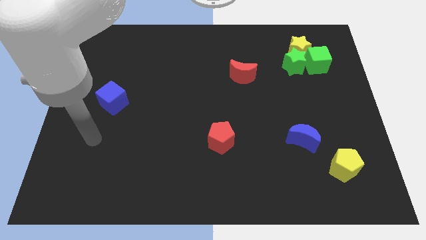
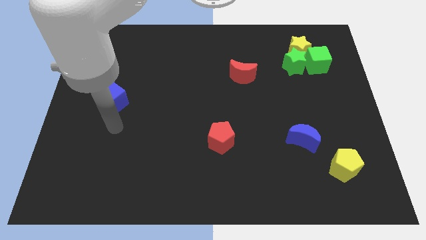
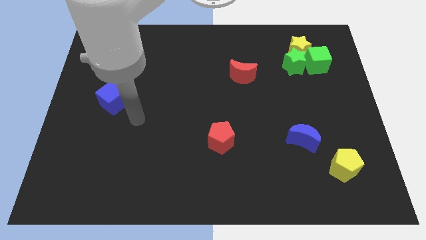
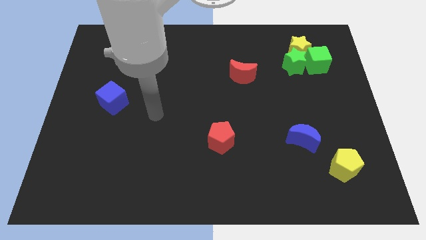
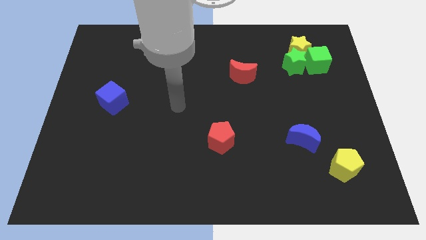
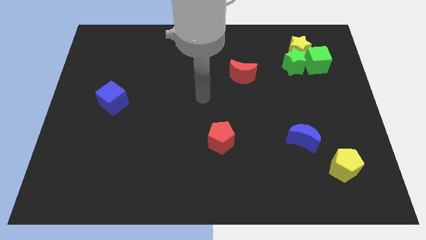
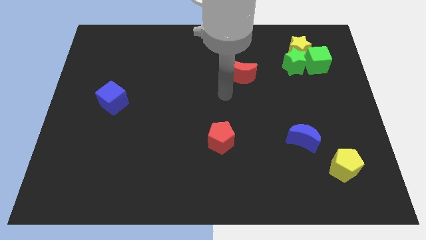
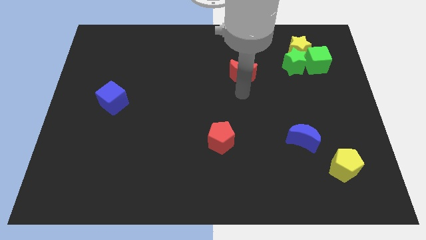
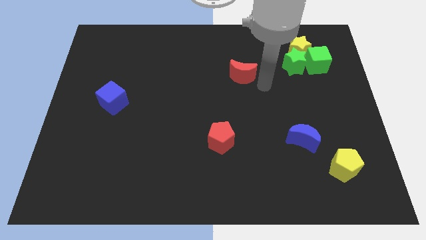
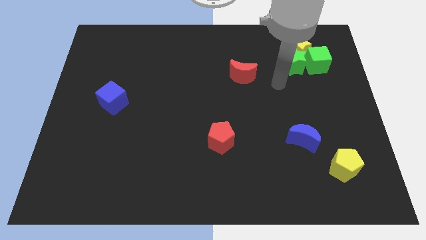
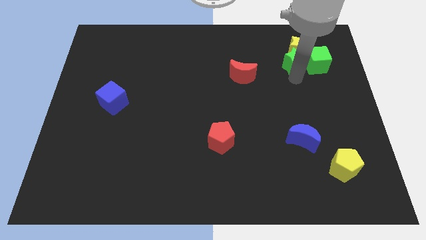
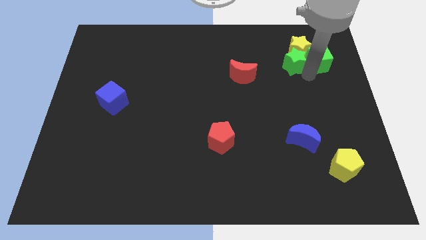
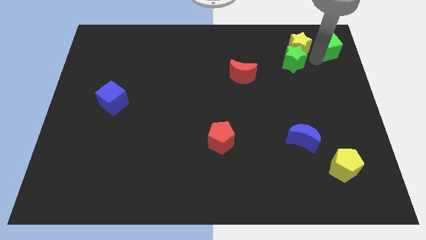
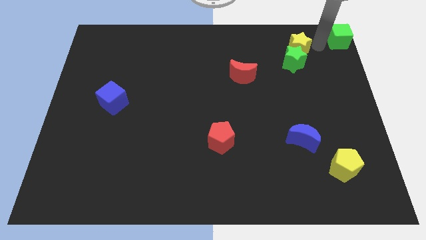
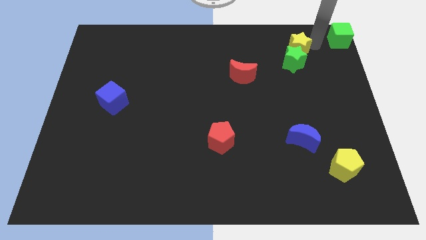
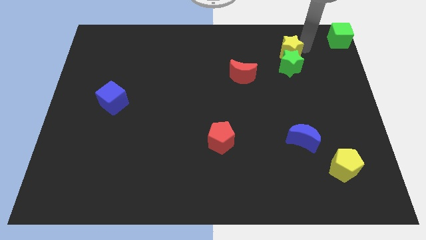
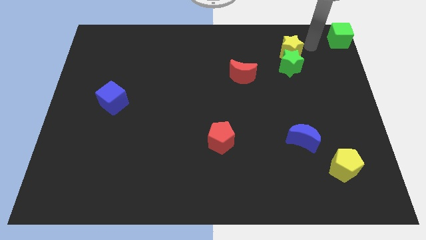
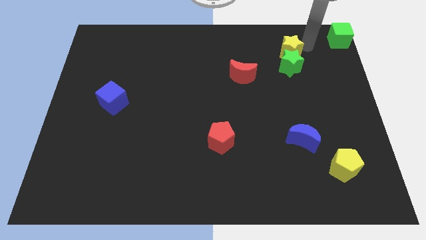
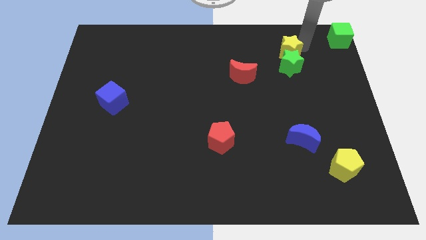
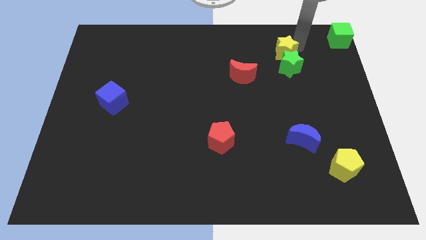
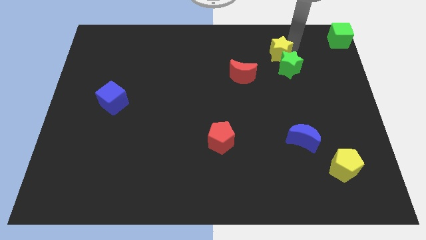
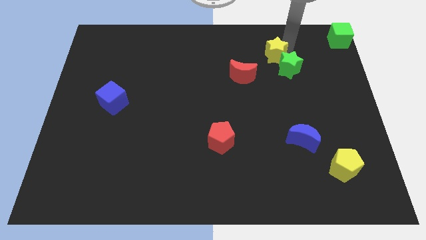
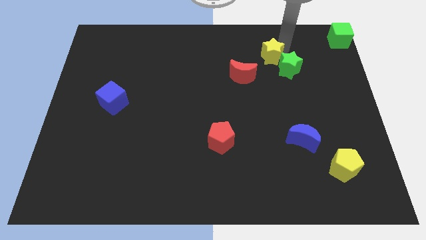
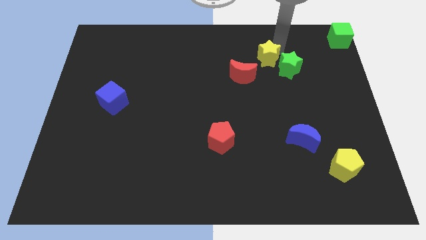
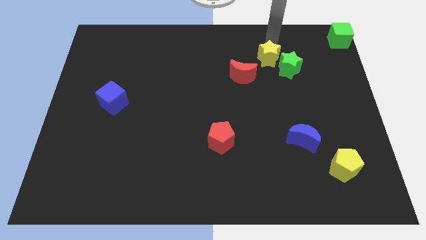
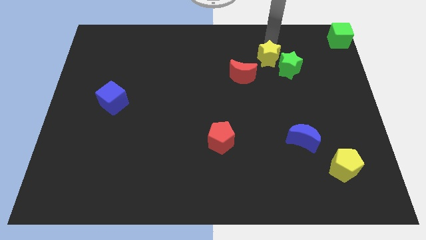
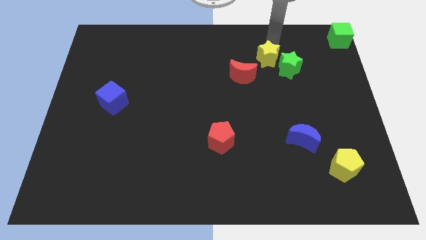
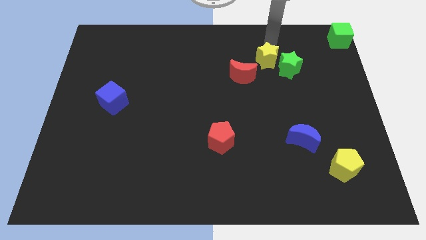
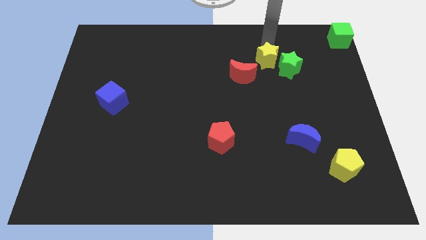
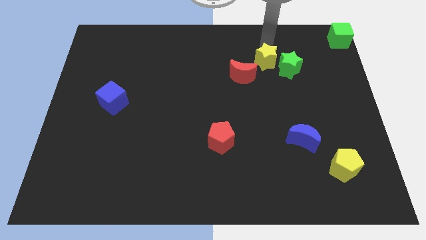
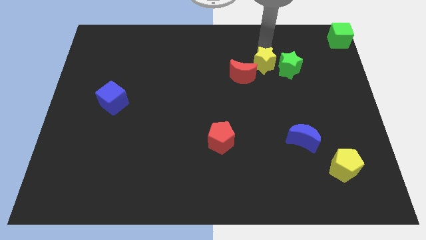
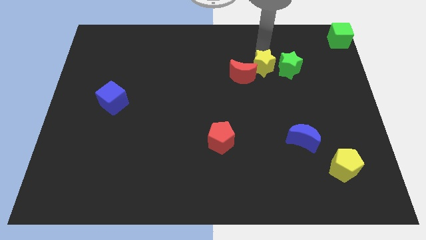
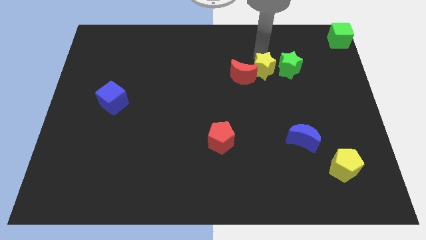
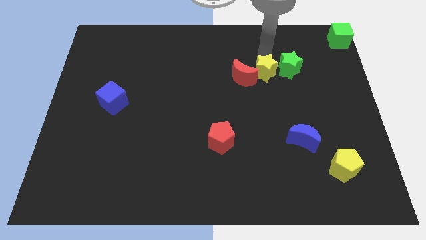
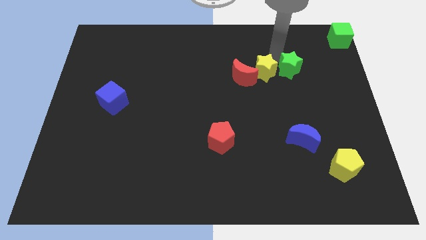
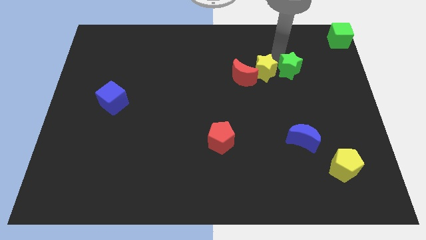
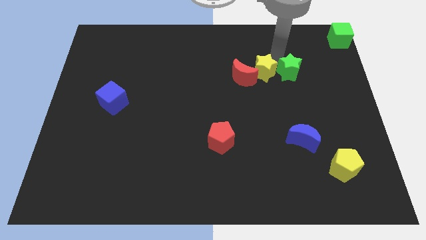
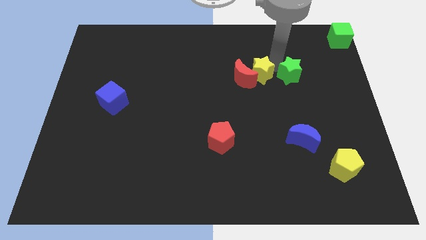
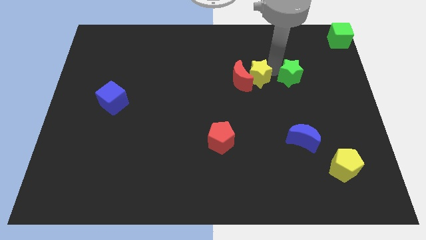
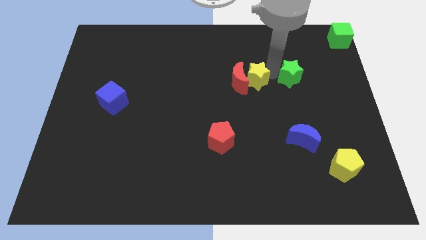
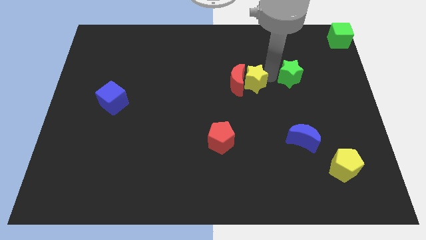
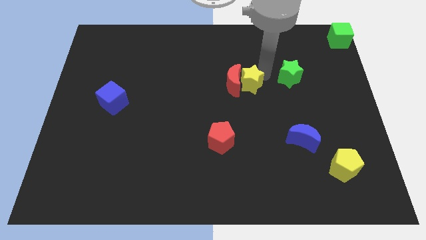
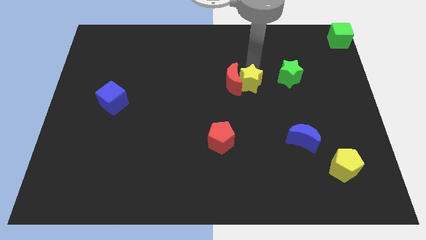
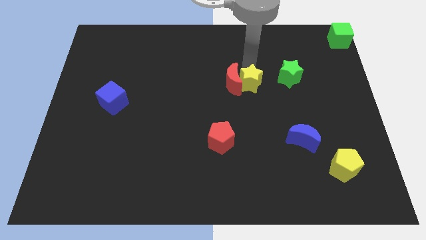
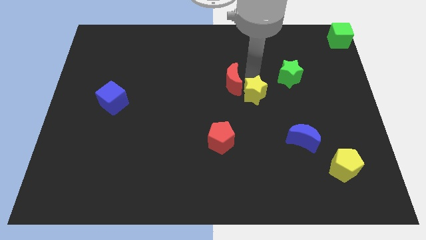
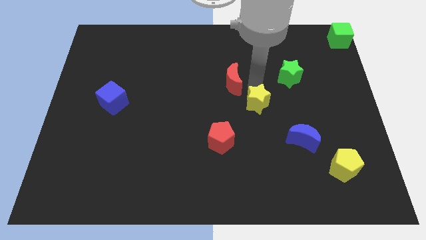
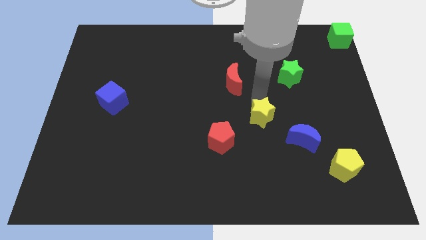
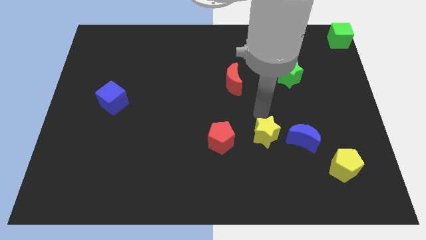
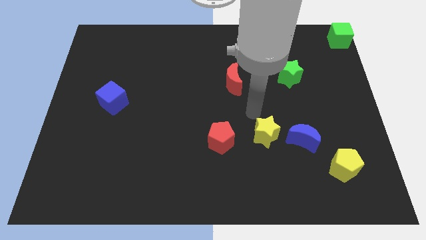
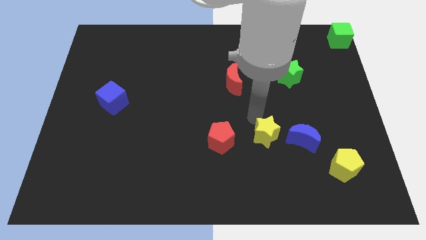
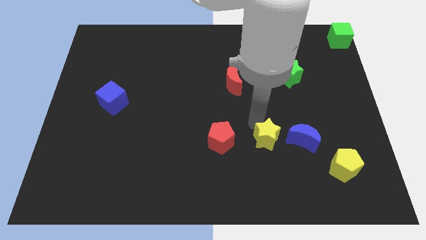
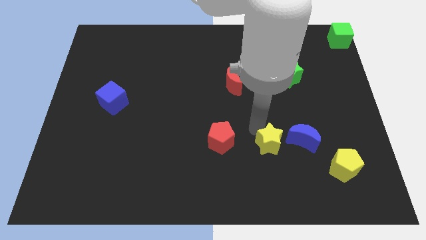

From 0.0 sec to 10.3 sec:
put the yellow star to the bottom left side of the blue moon

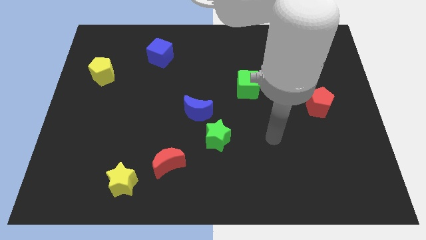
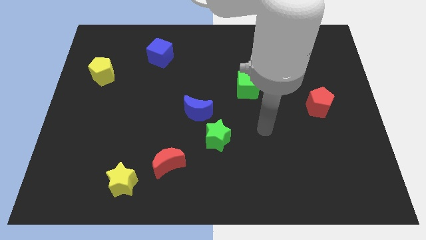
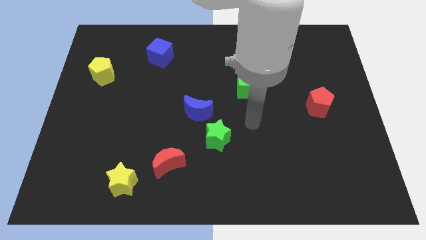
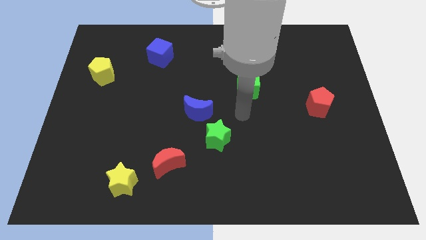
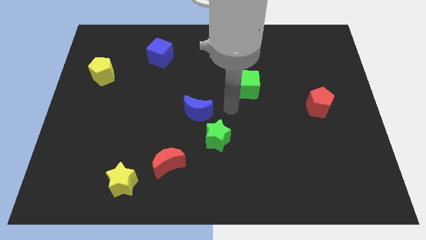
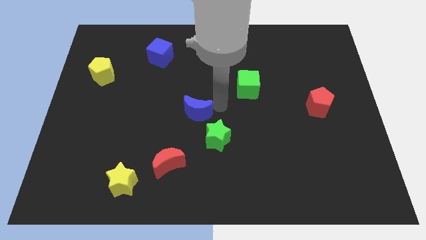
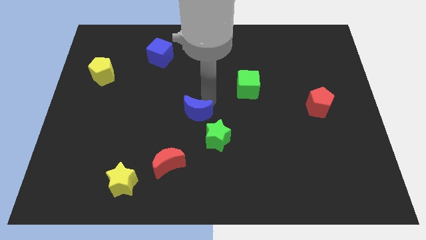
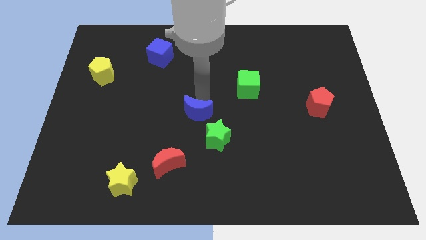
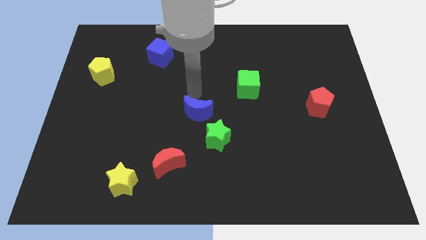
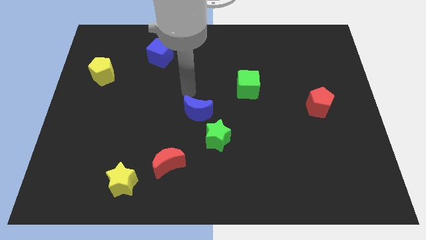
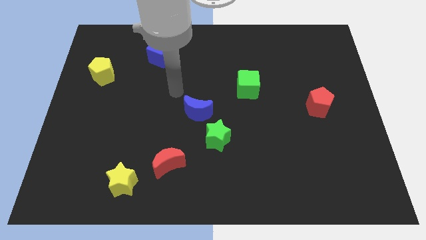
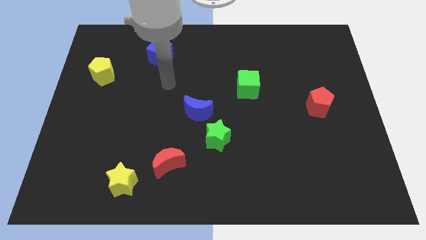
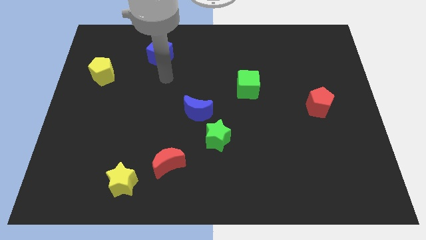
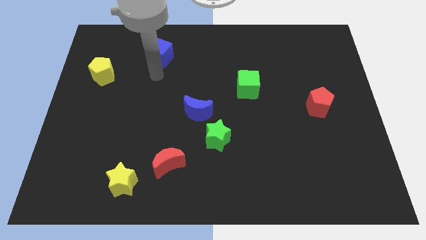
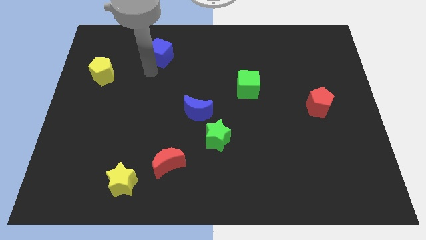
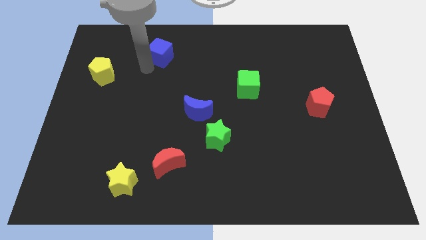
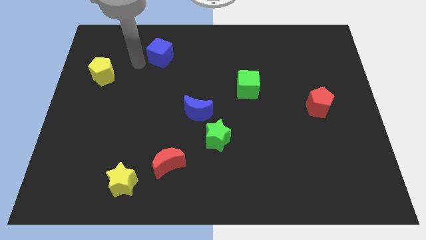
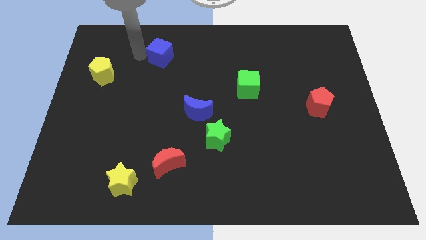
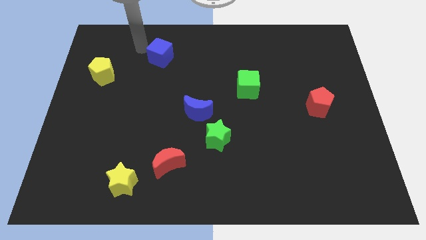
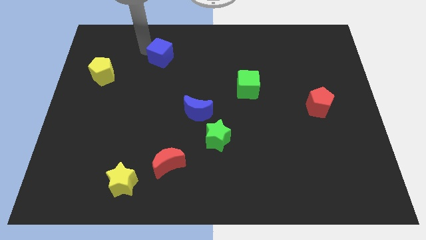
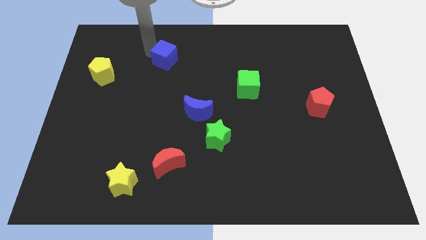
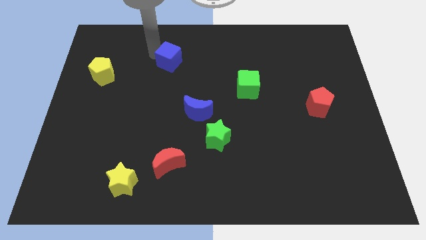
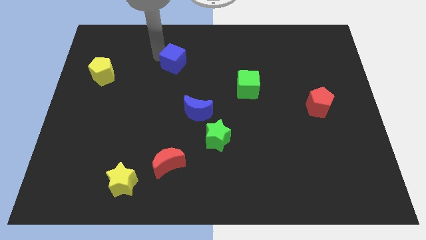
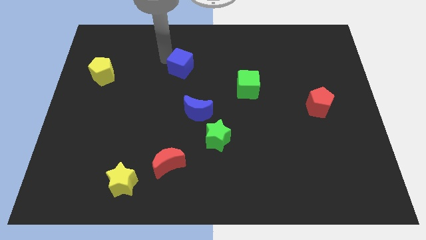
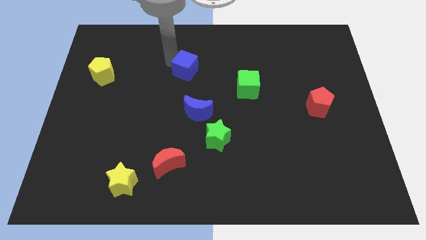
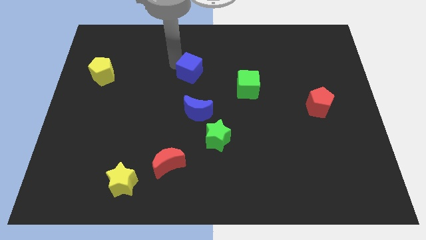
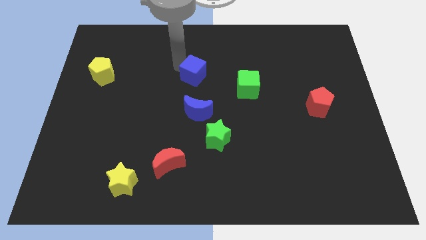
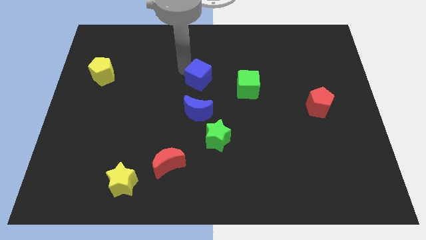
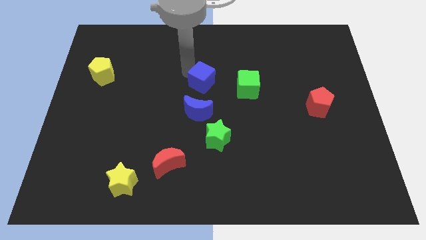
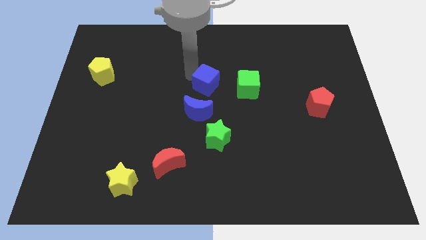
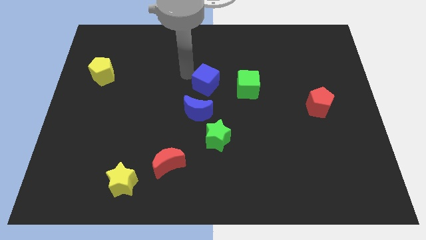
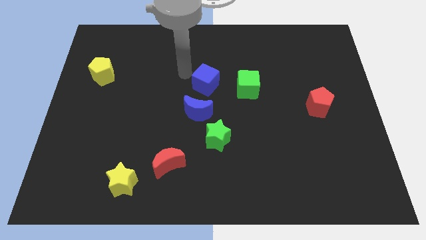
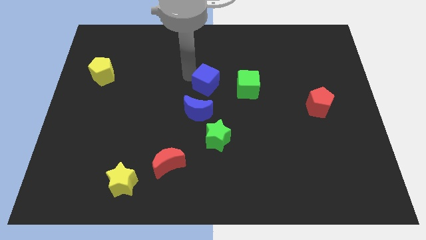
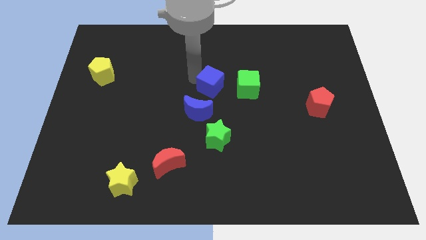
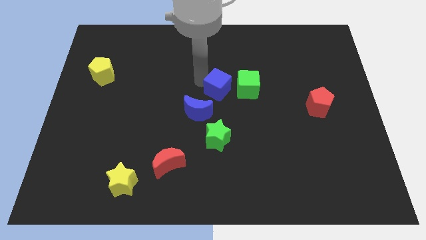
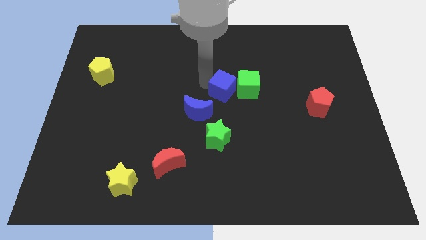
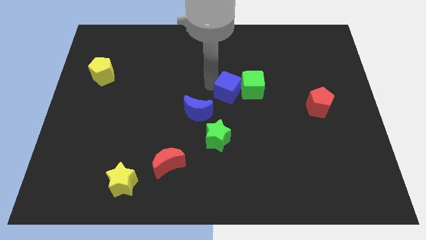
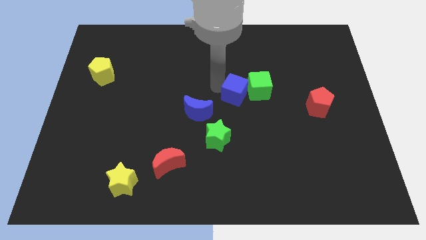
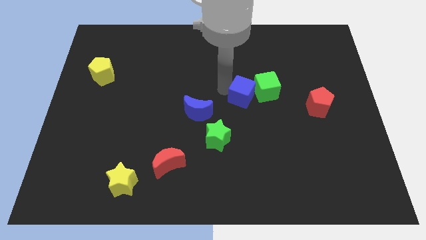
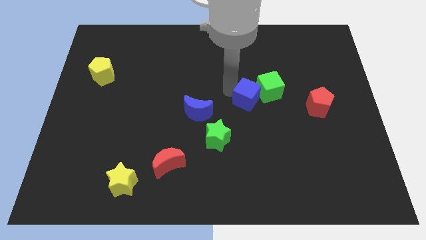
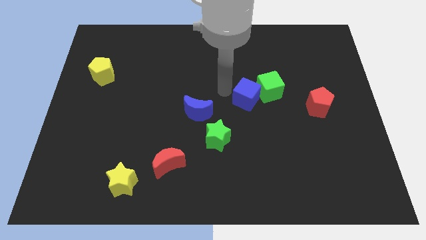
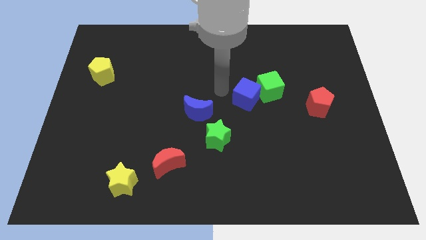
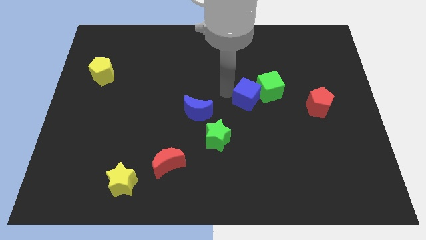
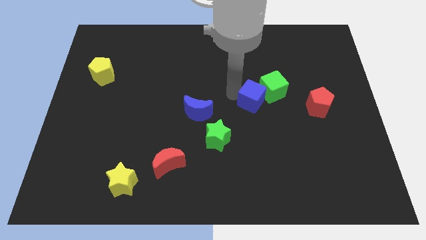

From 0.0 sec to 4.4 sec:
put the blue cube left of the red pentagon
